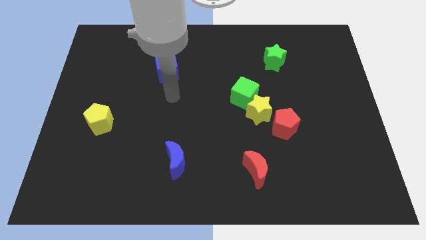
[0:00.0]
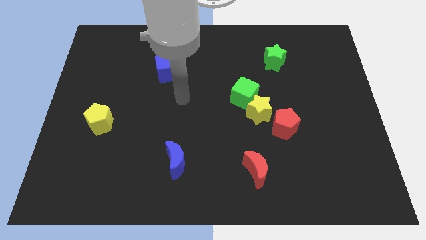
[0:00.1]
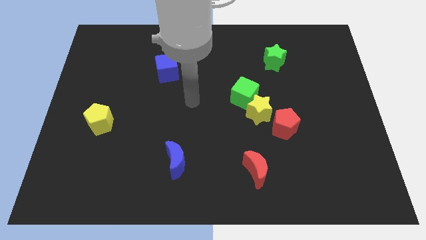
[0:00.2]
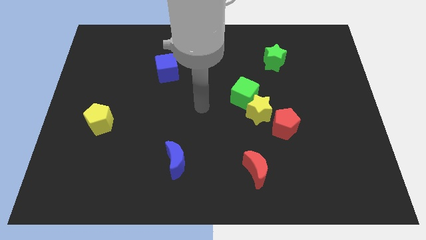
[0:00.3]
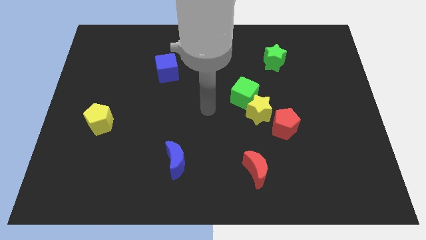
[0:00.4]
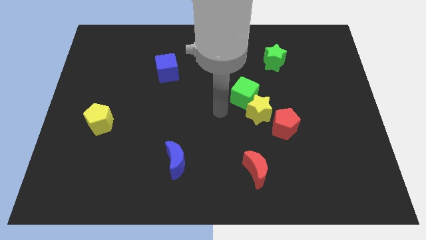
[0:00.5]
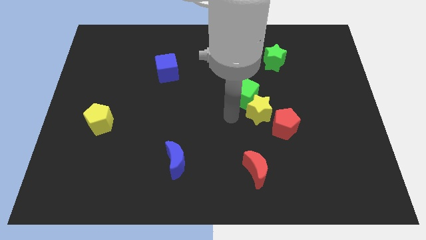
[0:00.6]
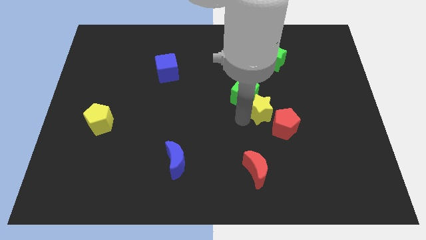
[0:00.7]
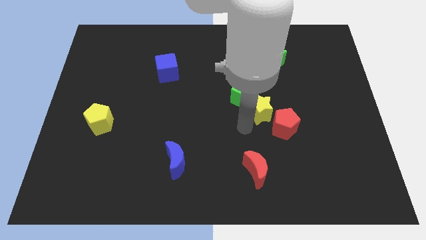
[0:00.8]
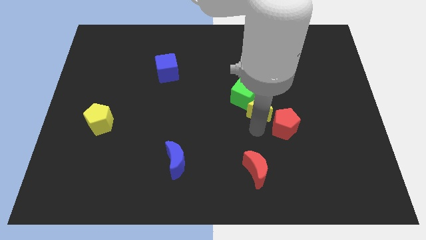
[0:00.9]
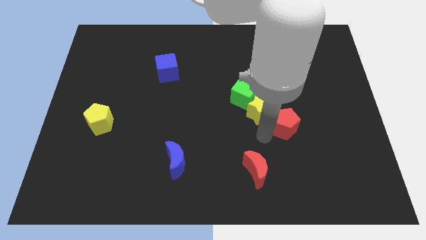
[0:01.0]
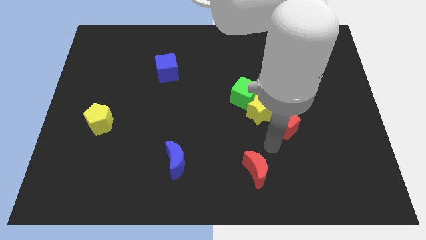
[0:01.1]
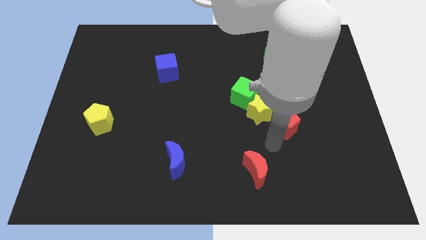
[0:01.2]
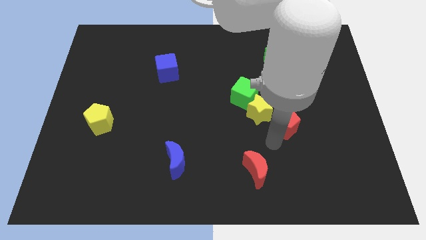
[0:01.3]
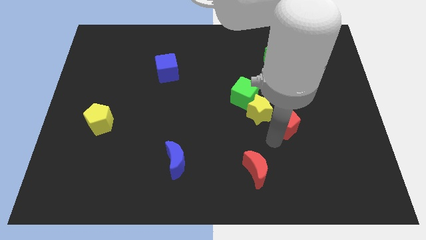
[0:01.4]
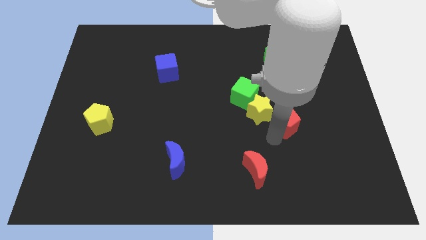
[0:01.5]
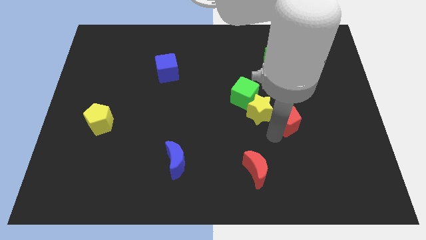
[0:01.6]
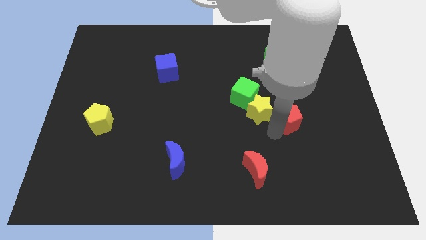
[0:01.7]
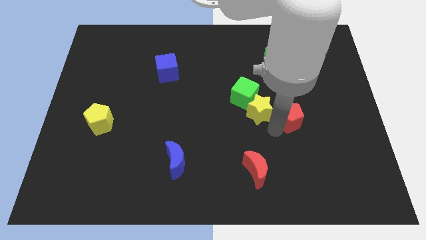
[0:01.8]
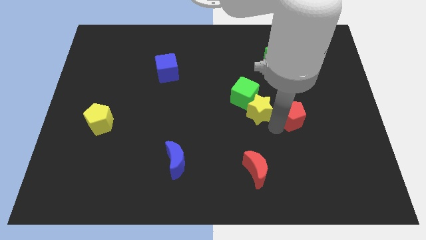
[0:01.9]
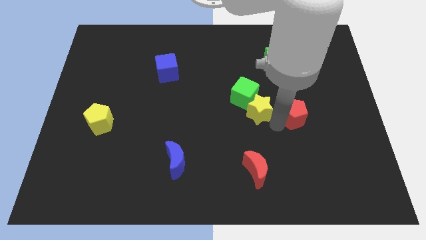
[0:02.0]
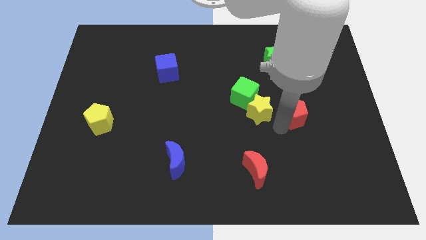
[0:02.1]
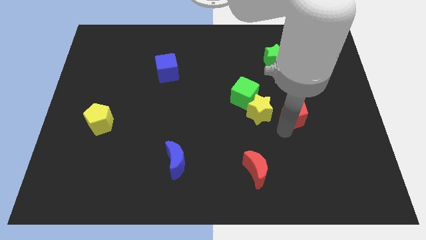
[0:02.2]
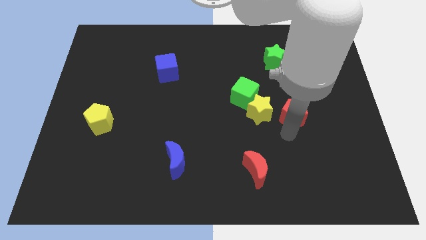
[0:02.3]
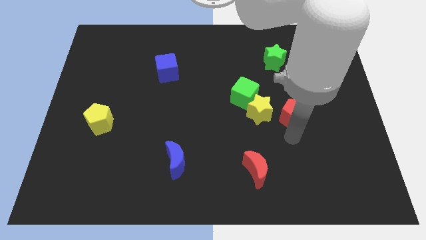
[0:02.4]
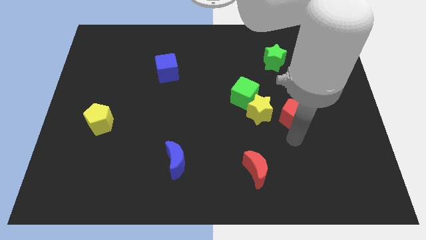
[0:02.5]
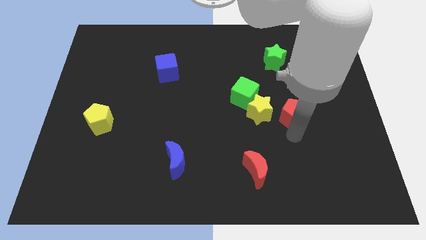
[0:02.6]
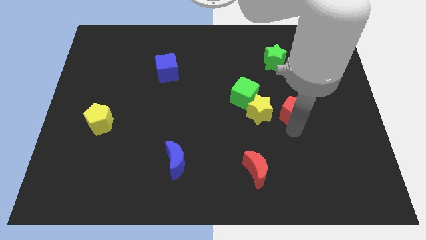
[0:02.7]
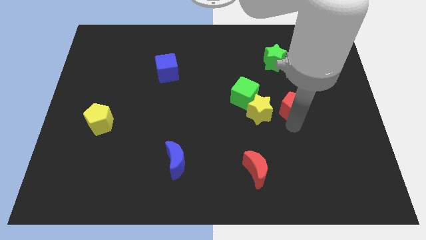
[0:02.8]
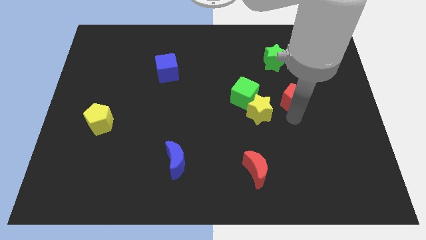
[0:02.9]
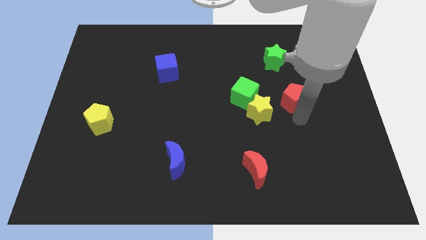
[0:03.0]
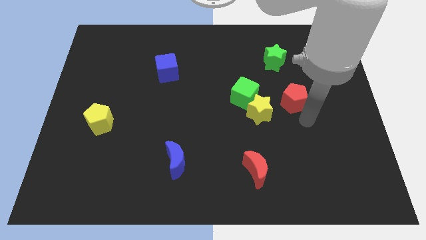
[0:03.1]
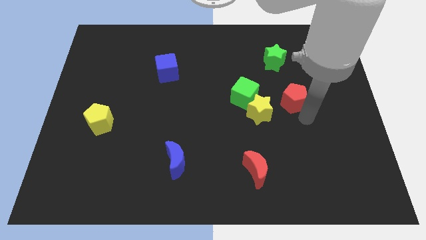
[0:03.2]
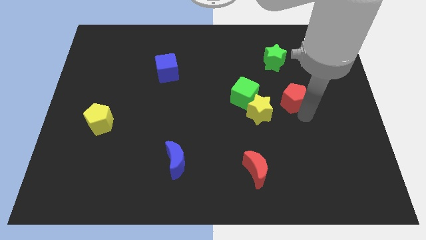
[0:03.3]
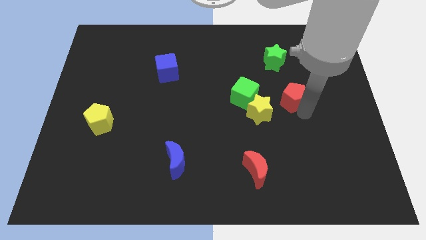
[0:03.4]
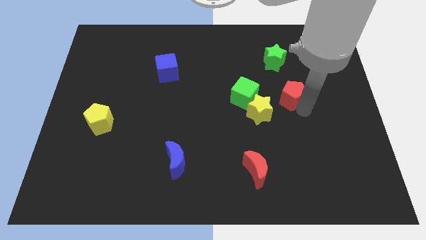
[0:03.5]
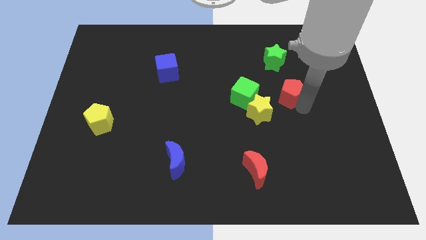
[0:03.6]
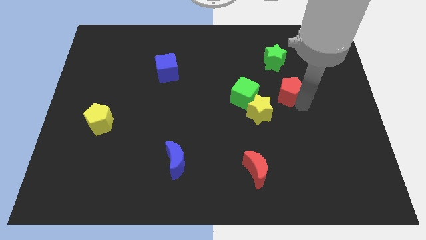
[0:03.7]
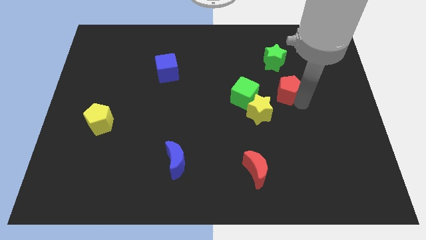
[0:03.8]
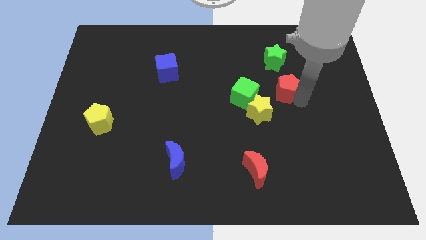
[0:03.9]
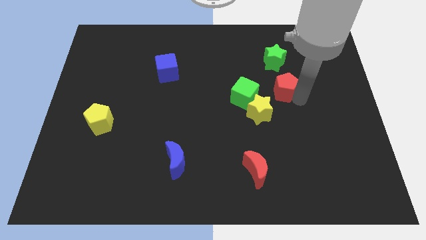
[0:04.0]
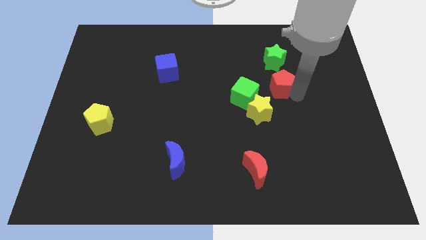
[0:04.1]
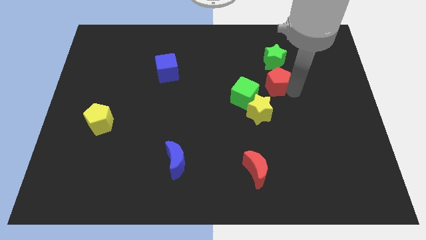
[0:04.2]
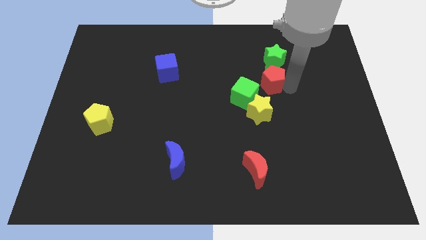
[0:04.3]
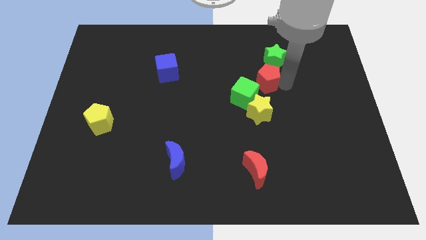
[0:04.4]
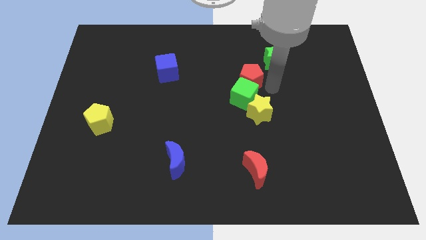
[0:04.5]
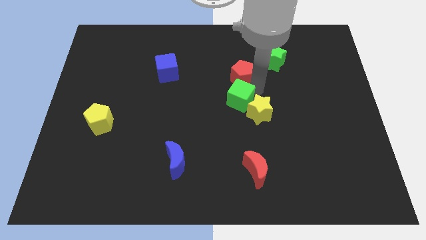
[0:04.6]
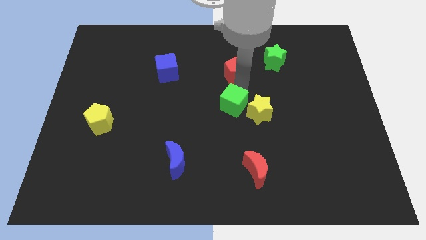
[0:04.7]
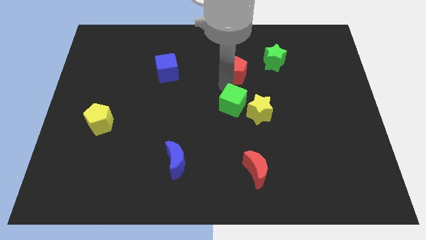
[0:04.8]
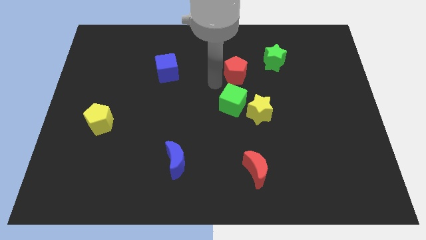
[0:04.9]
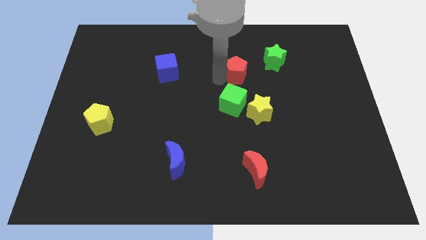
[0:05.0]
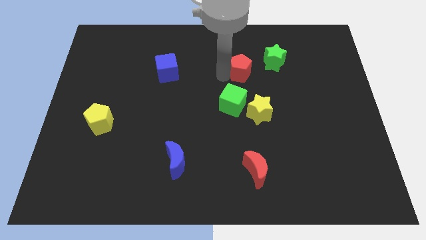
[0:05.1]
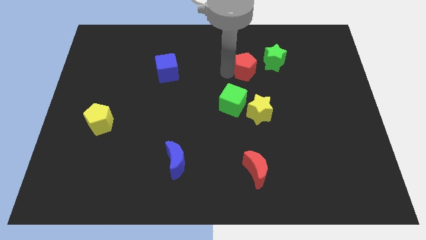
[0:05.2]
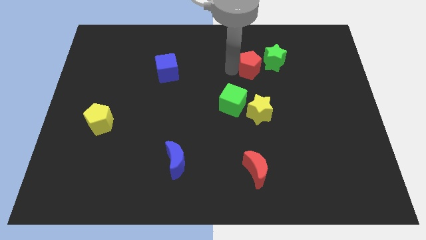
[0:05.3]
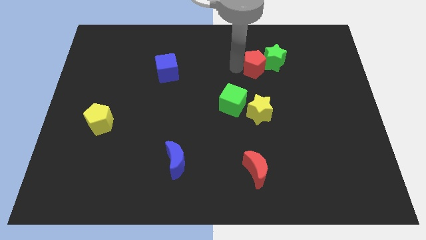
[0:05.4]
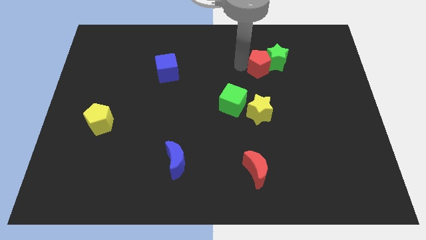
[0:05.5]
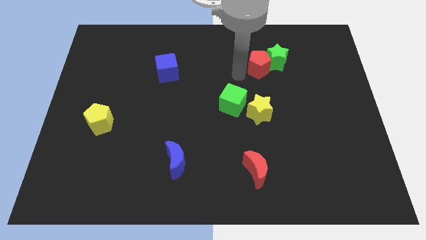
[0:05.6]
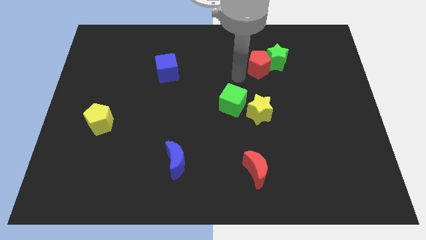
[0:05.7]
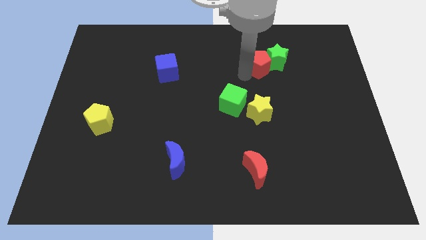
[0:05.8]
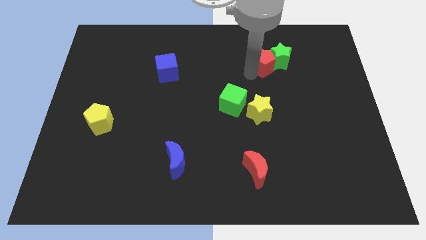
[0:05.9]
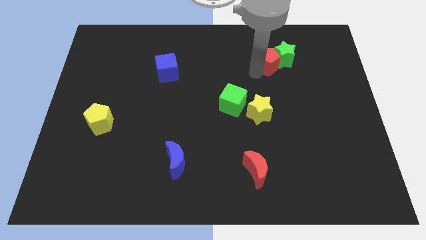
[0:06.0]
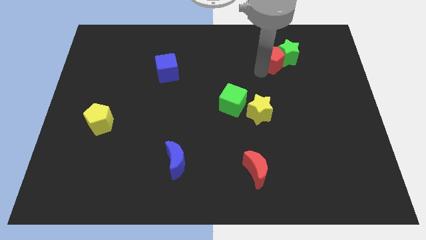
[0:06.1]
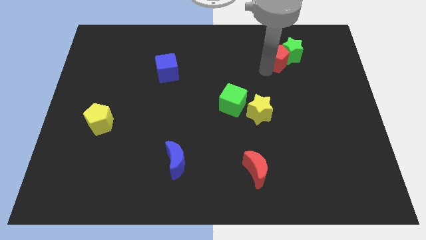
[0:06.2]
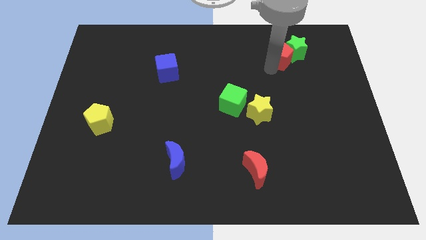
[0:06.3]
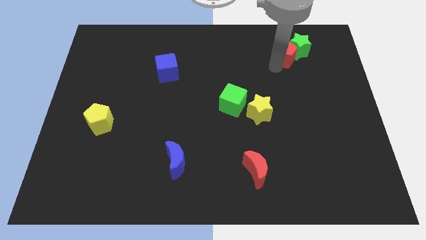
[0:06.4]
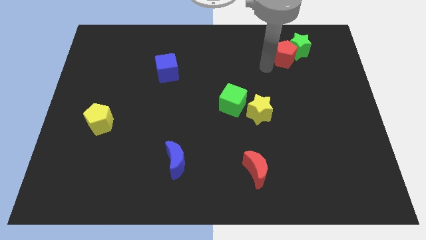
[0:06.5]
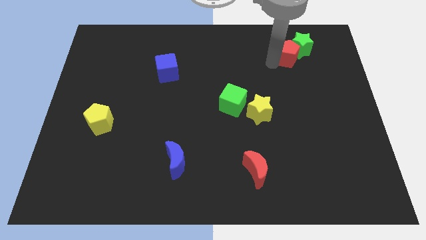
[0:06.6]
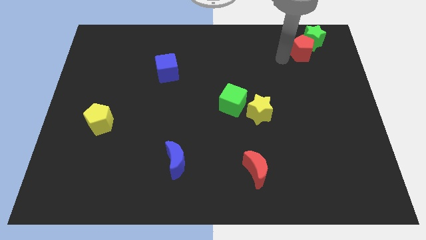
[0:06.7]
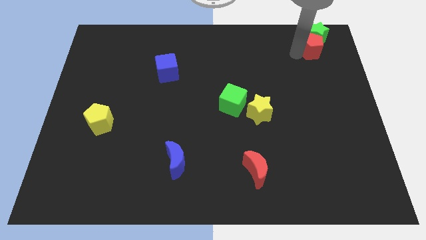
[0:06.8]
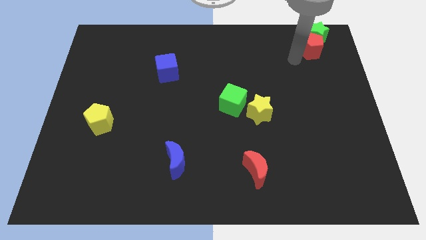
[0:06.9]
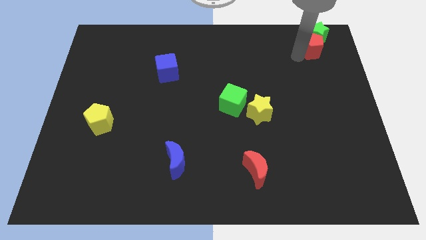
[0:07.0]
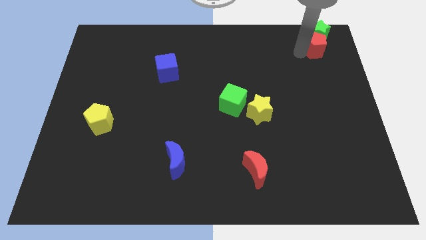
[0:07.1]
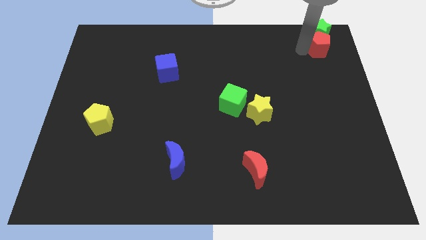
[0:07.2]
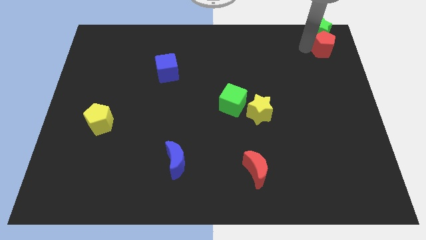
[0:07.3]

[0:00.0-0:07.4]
put the red pentagon to the top right corner
